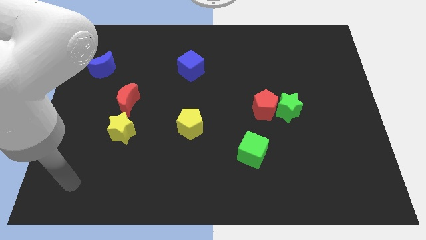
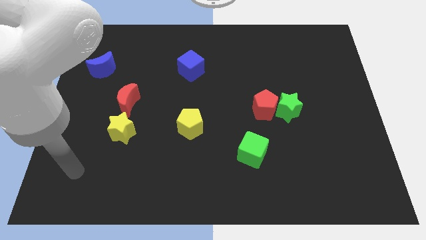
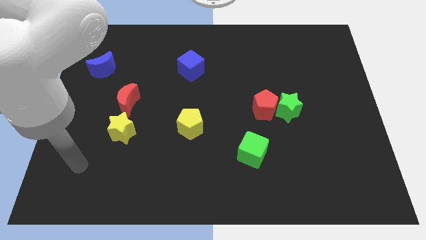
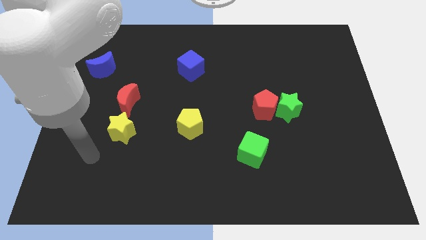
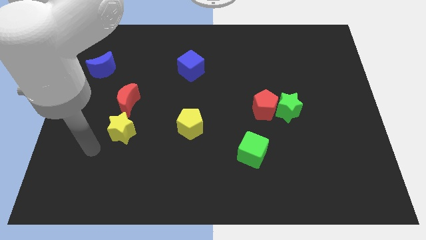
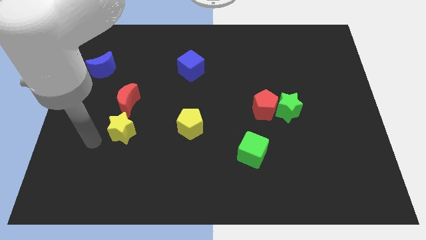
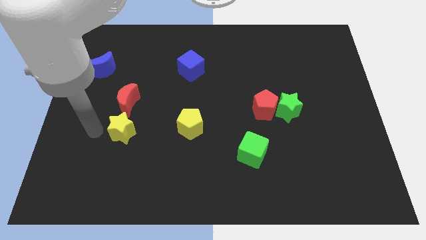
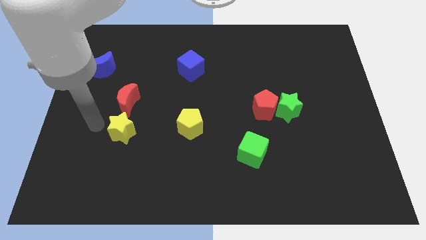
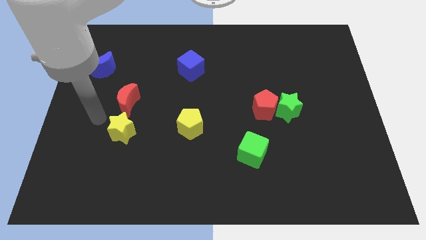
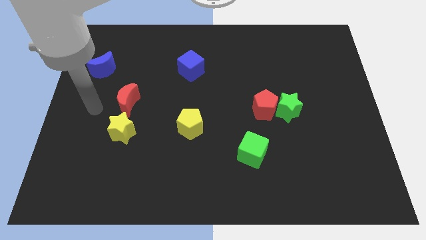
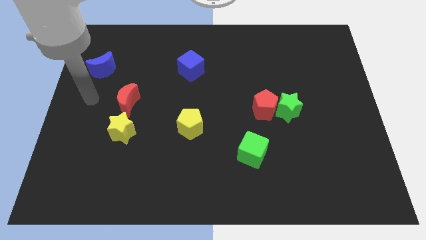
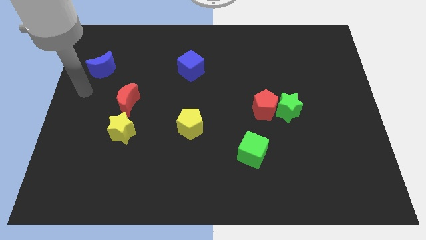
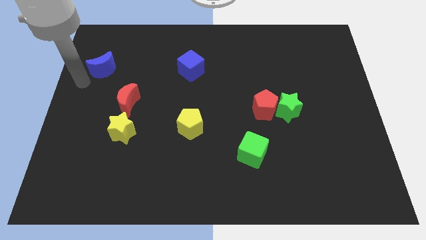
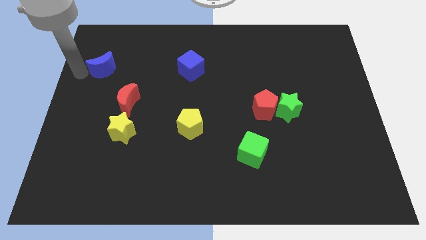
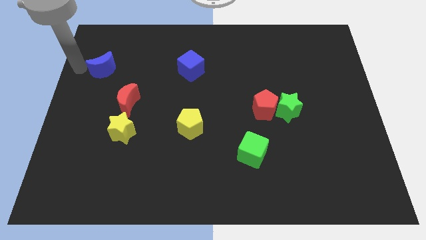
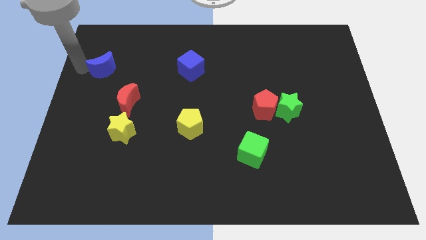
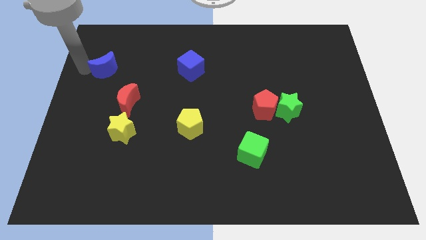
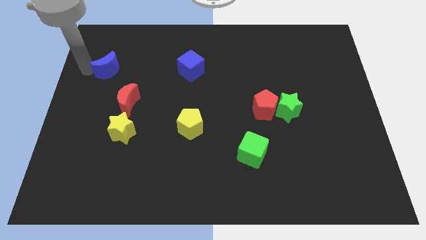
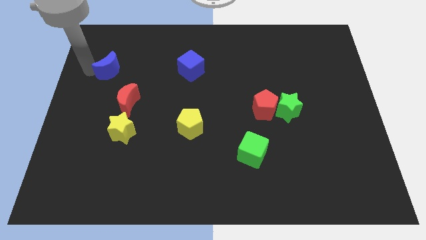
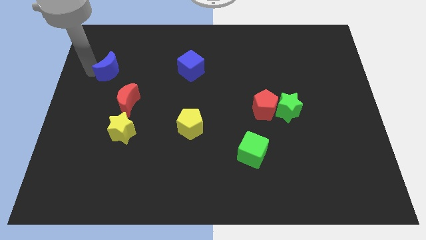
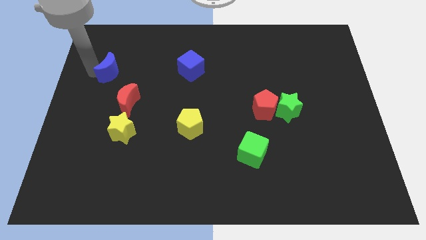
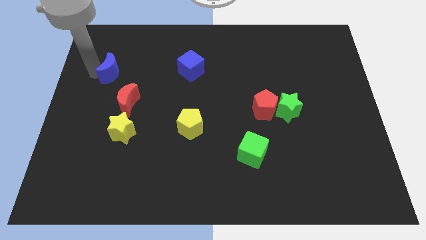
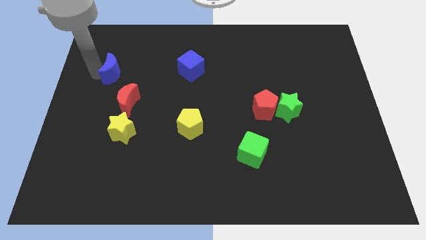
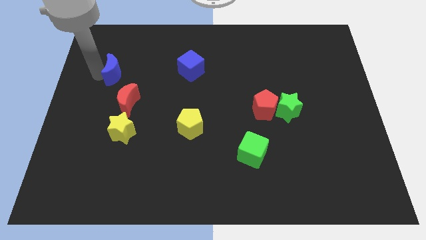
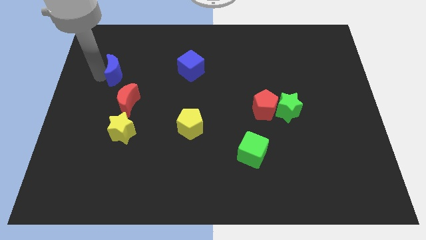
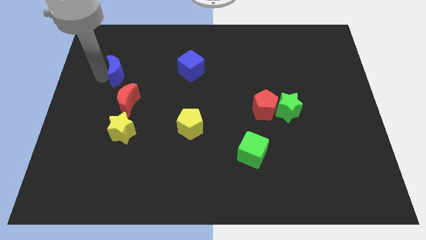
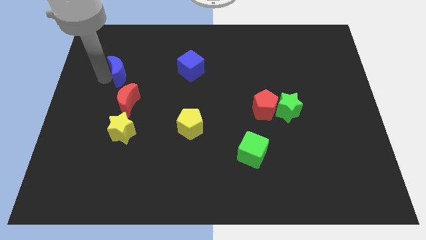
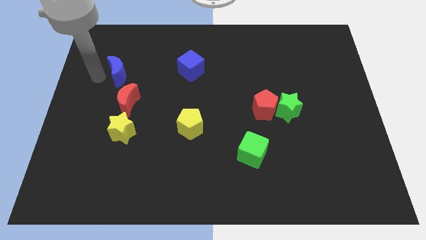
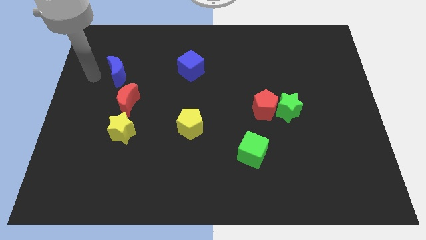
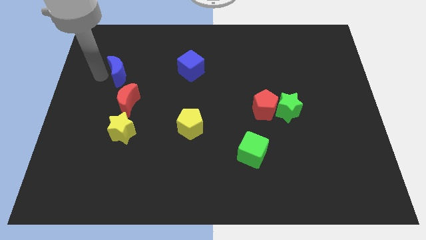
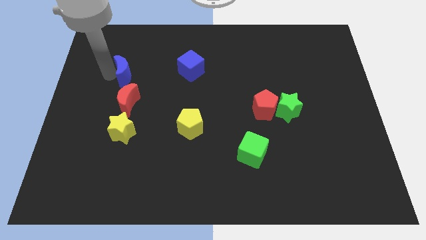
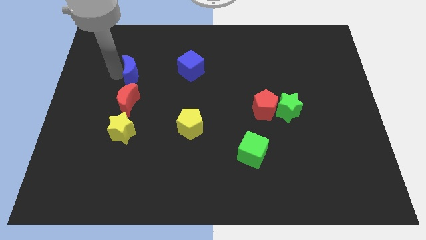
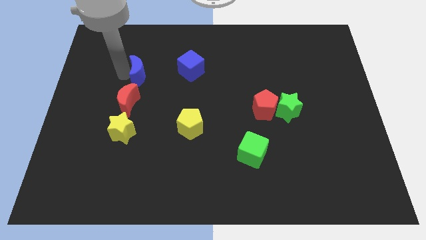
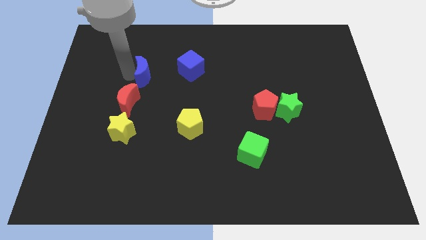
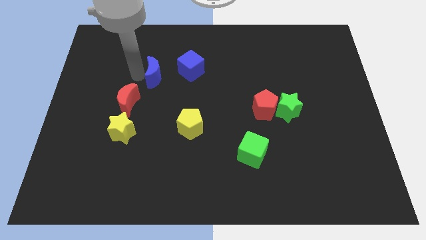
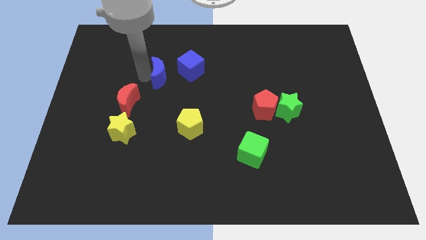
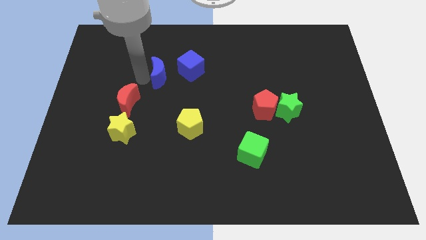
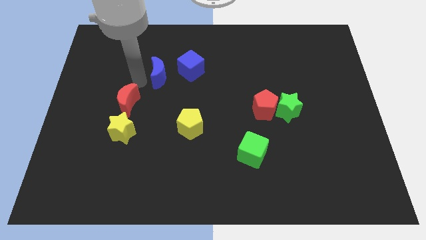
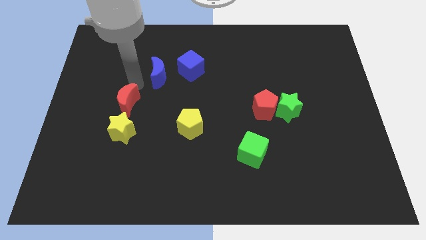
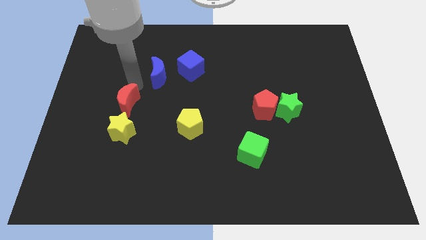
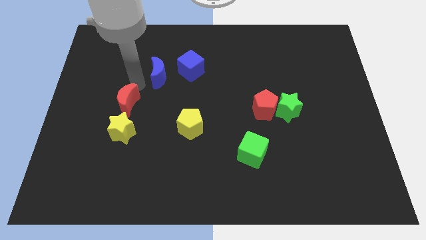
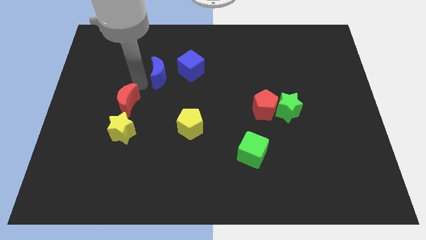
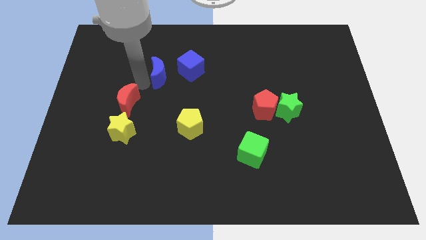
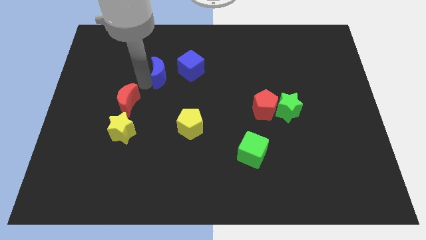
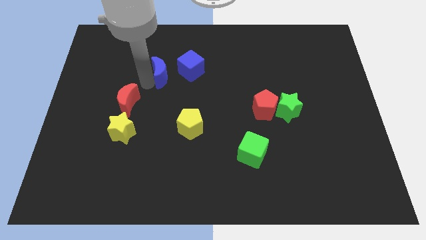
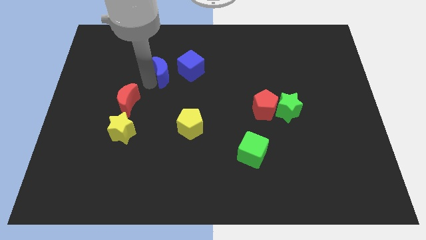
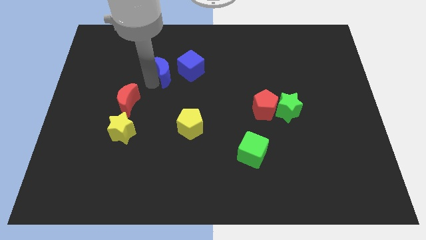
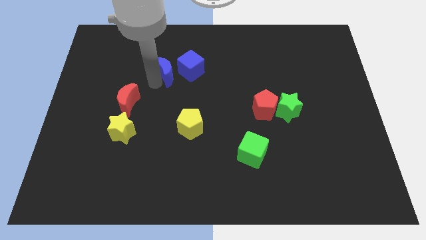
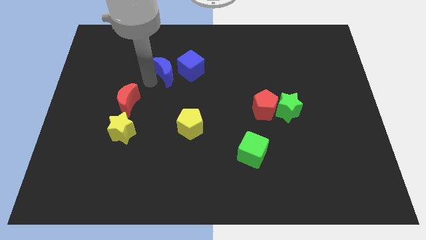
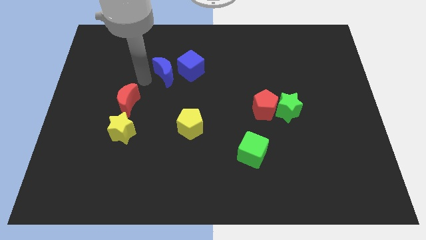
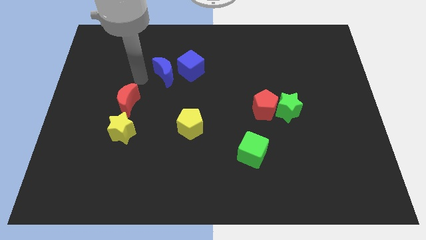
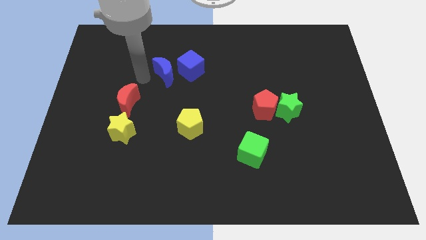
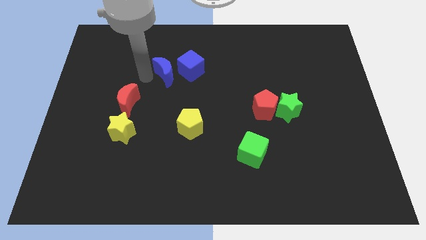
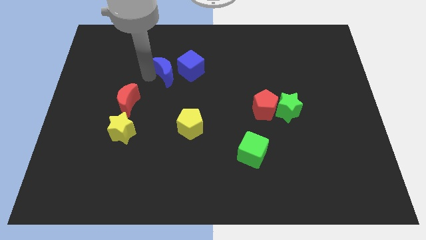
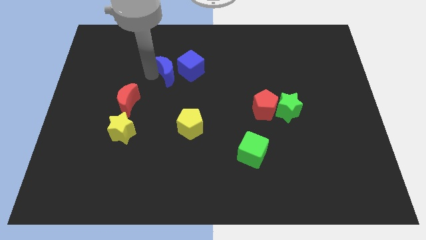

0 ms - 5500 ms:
slide the blue moon to the blue cube

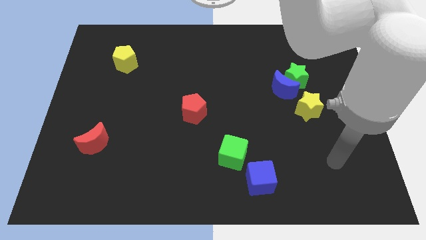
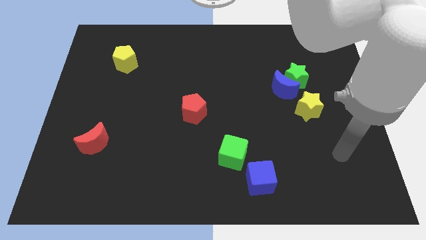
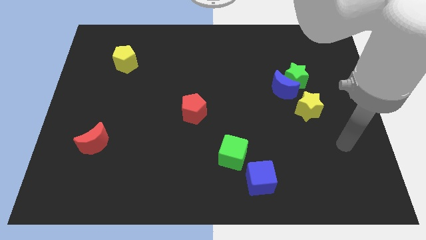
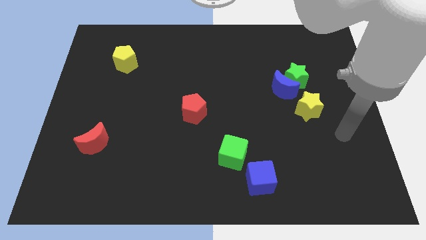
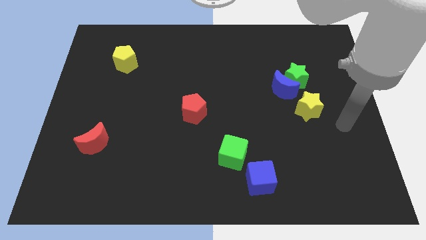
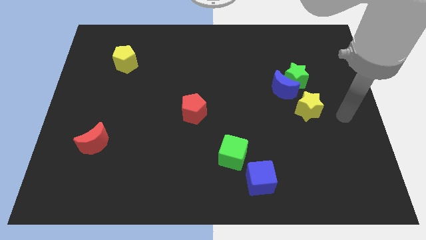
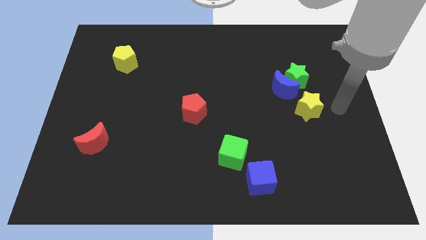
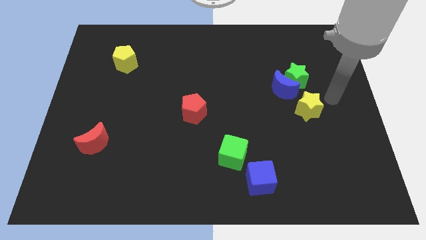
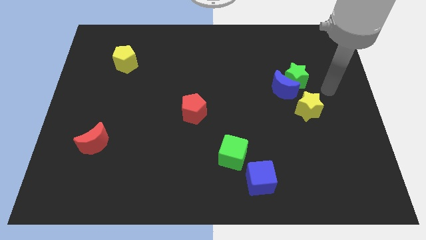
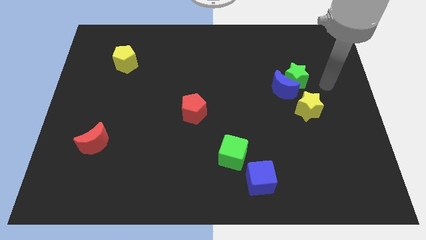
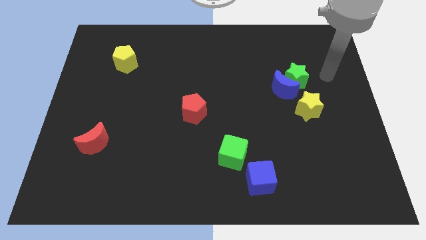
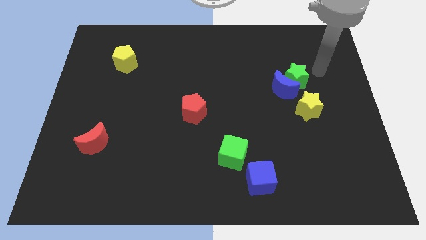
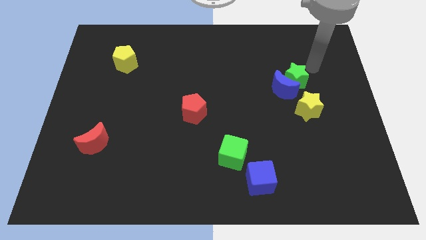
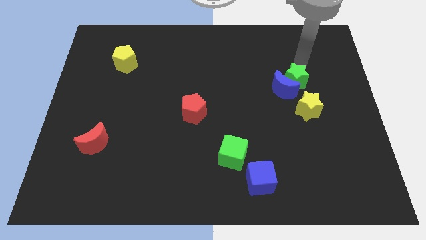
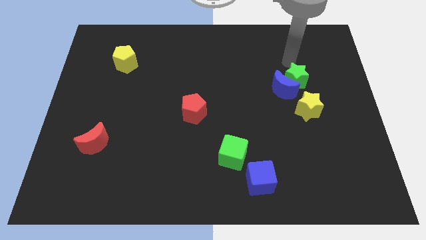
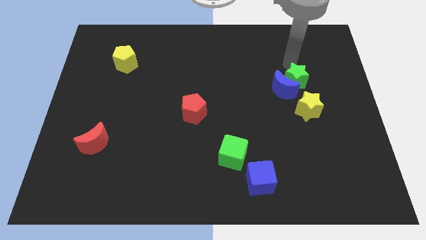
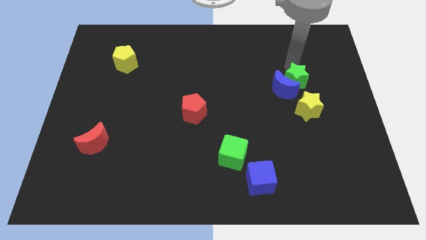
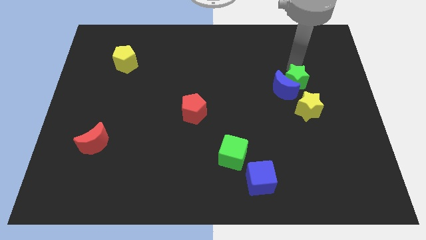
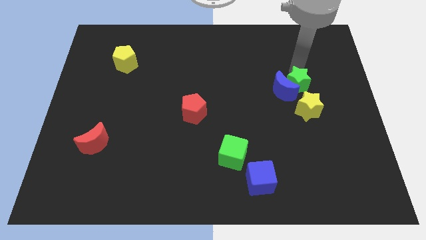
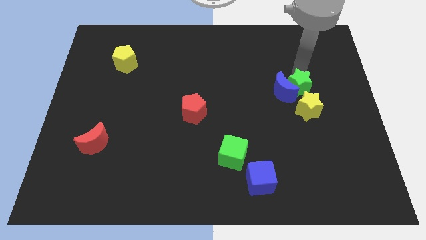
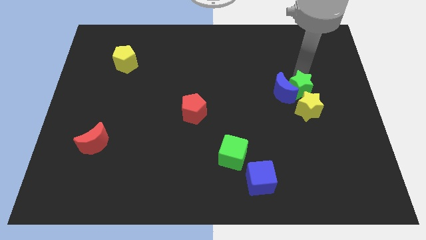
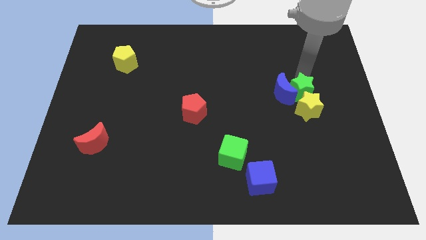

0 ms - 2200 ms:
move the green star to the yellow star
